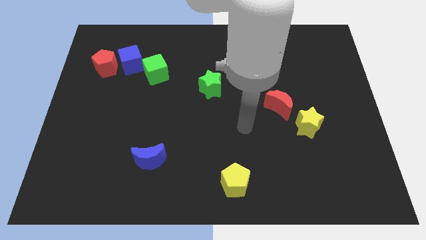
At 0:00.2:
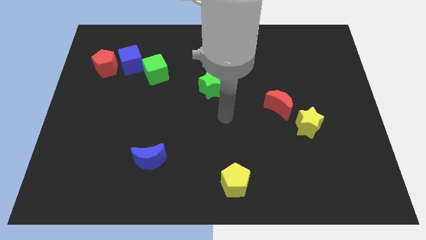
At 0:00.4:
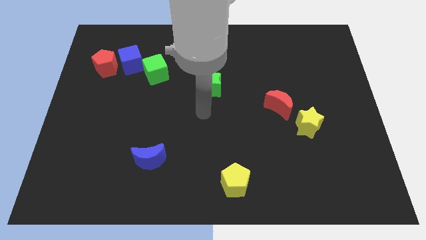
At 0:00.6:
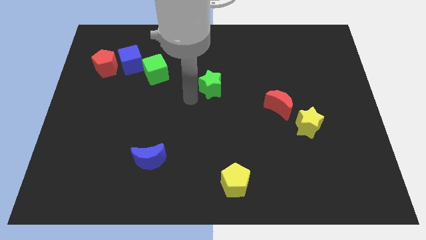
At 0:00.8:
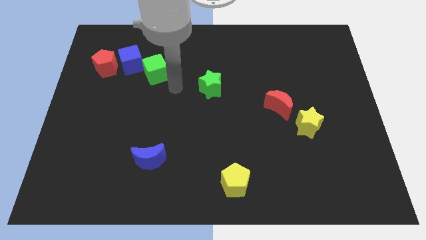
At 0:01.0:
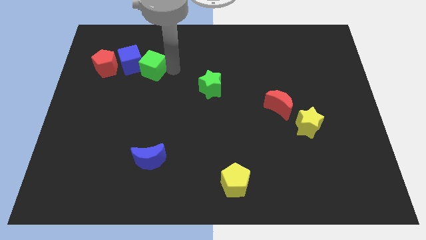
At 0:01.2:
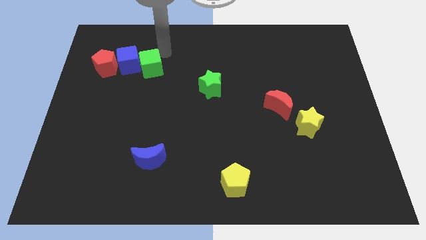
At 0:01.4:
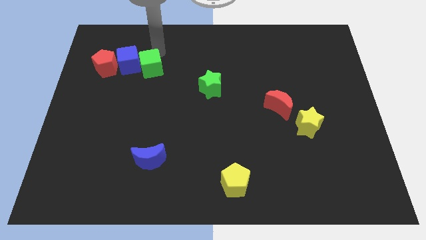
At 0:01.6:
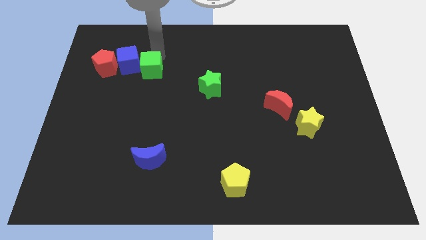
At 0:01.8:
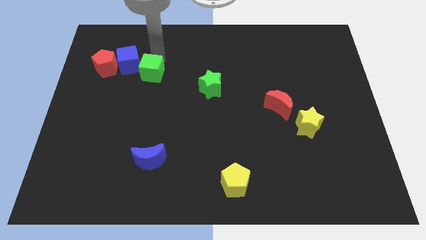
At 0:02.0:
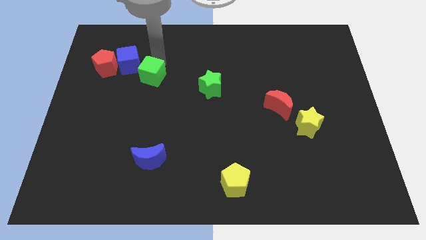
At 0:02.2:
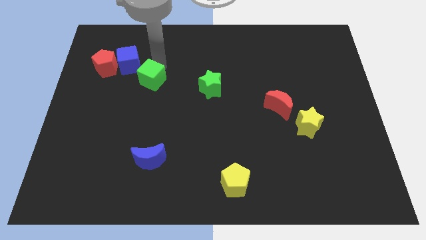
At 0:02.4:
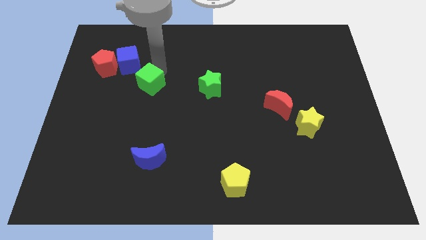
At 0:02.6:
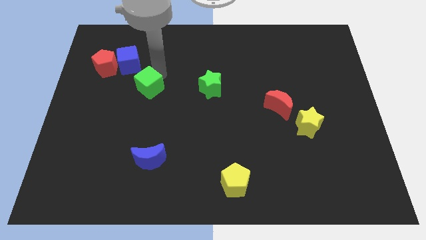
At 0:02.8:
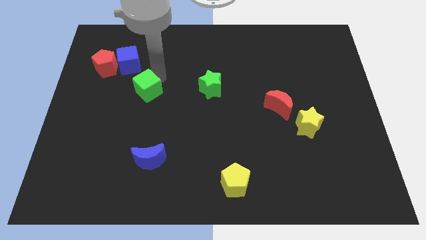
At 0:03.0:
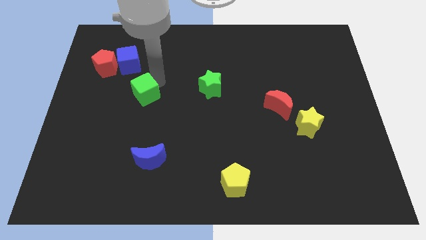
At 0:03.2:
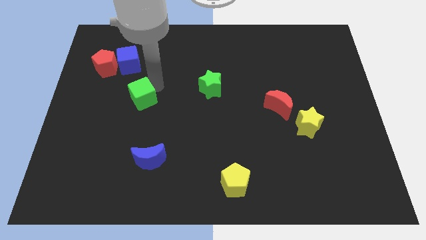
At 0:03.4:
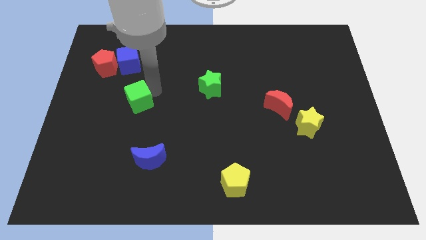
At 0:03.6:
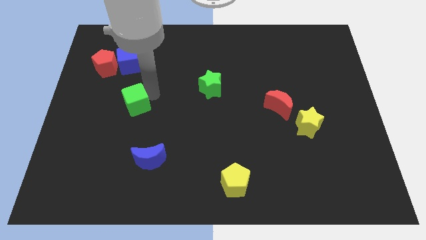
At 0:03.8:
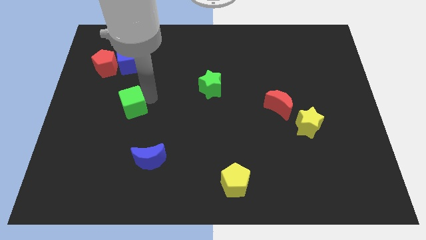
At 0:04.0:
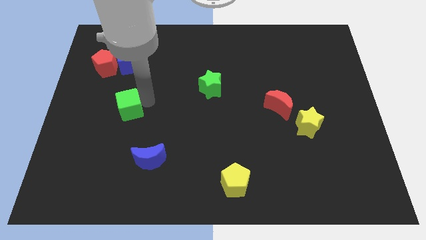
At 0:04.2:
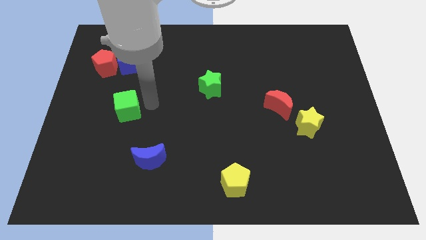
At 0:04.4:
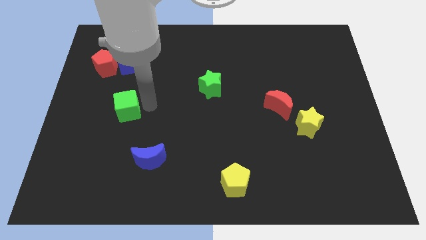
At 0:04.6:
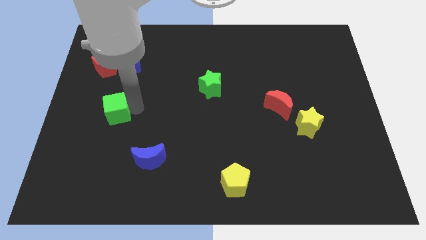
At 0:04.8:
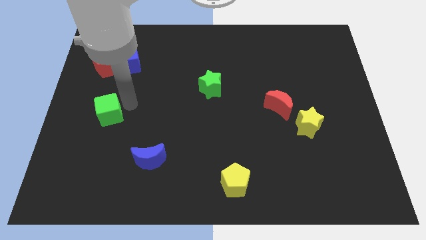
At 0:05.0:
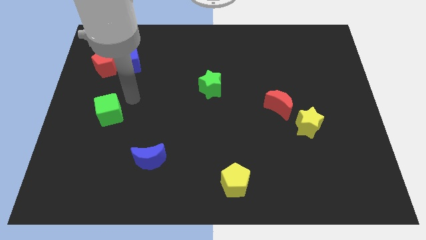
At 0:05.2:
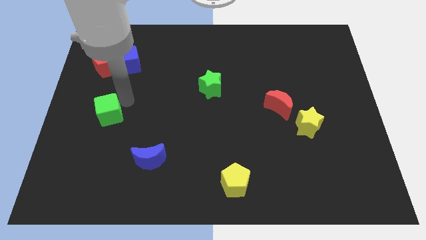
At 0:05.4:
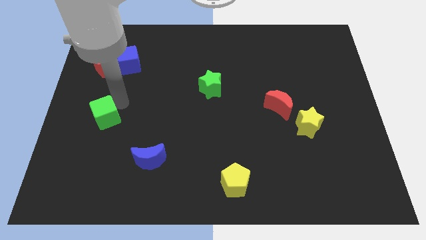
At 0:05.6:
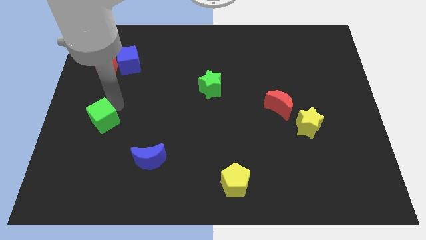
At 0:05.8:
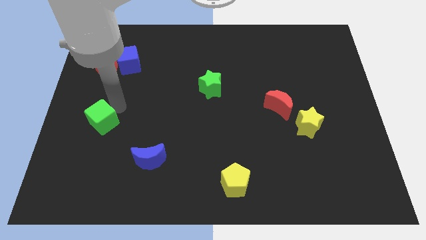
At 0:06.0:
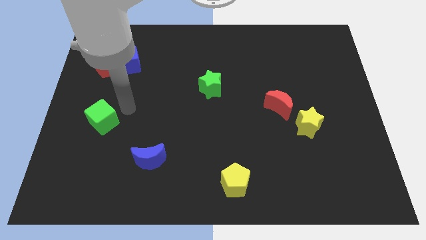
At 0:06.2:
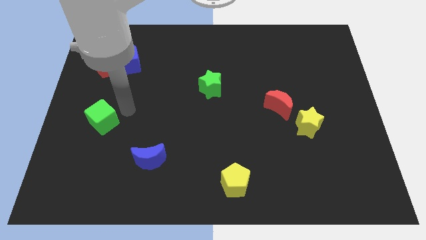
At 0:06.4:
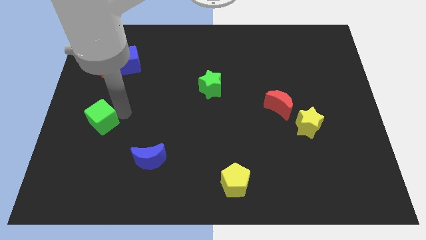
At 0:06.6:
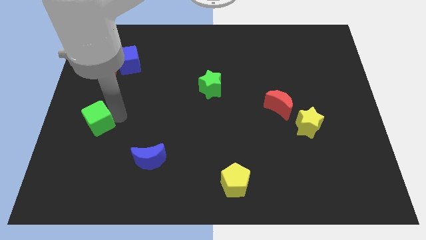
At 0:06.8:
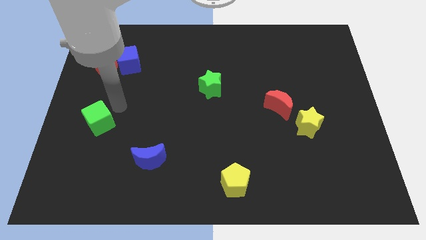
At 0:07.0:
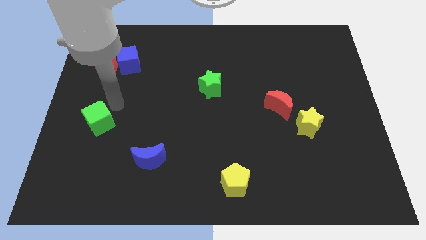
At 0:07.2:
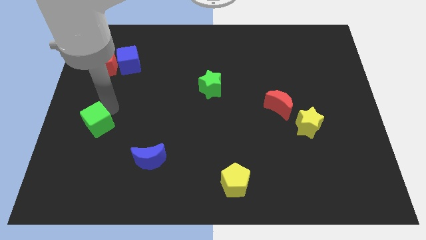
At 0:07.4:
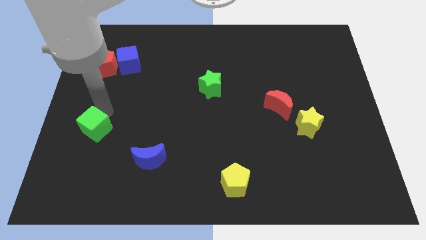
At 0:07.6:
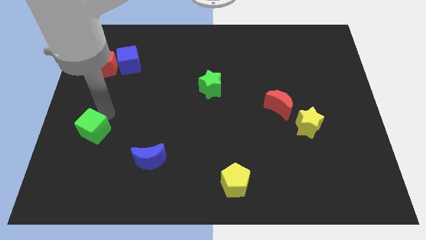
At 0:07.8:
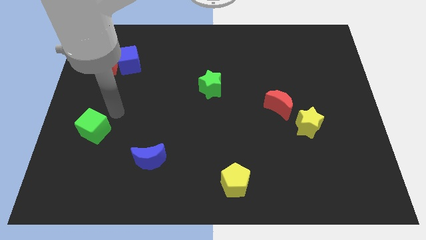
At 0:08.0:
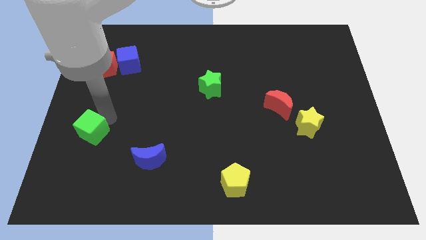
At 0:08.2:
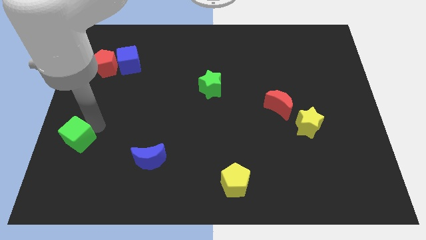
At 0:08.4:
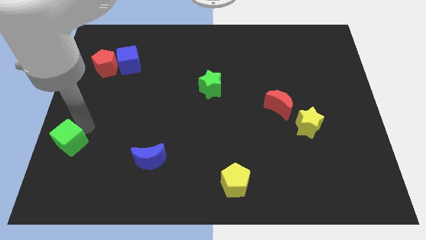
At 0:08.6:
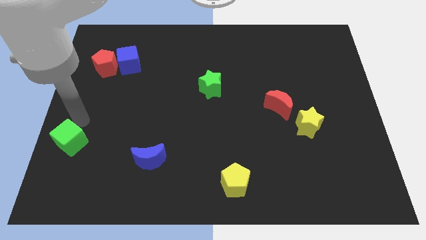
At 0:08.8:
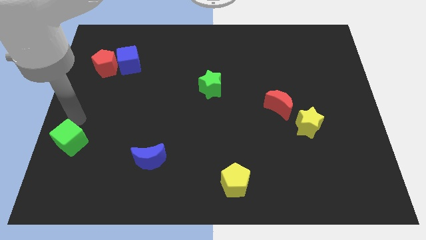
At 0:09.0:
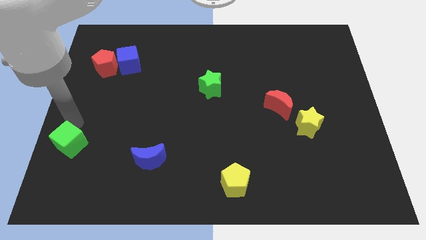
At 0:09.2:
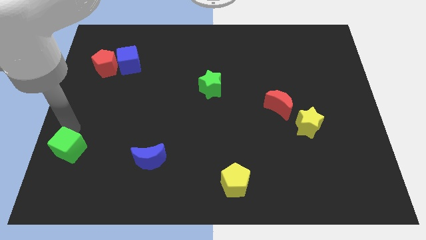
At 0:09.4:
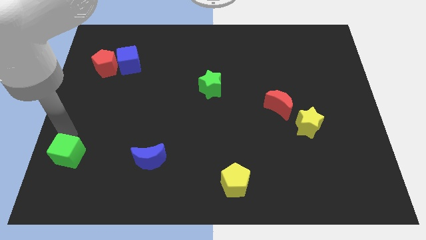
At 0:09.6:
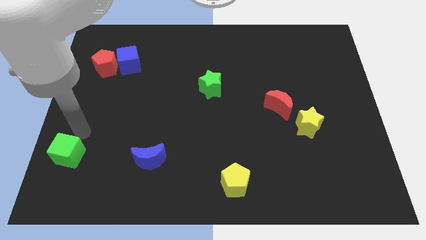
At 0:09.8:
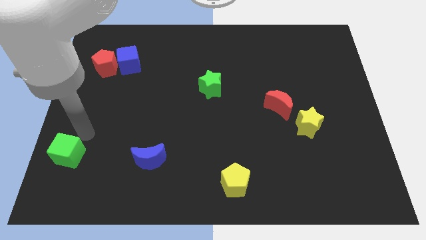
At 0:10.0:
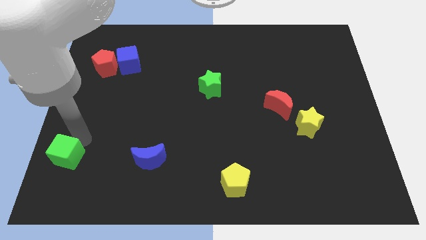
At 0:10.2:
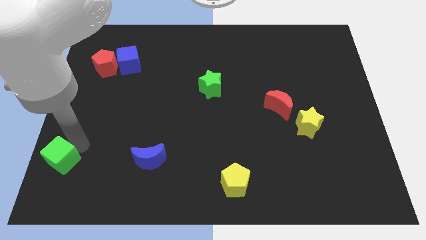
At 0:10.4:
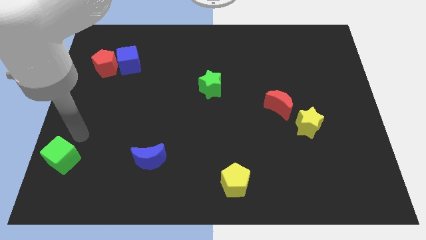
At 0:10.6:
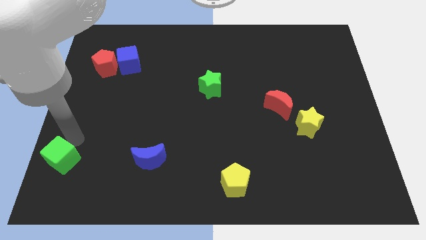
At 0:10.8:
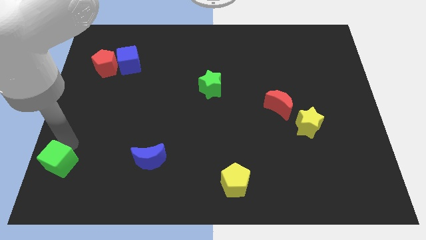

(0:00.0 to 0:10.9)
put the green cube to the lower left corner
